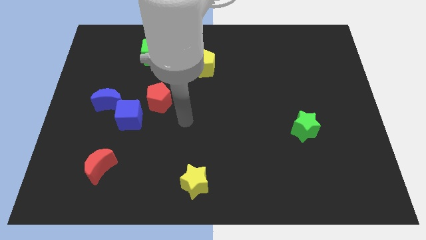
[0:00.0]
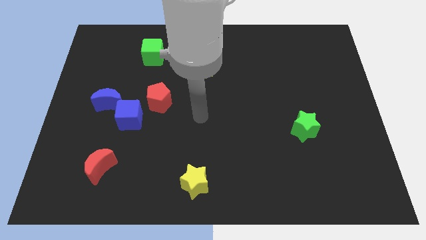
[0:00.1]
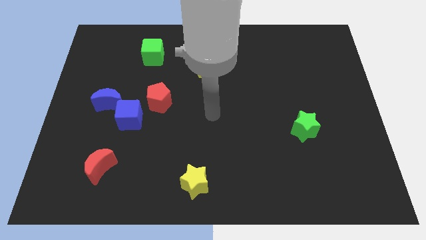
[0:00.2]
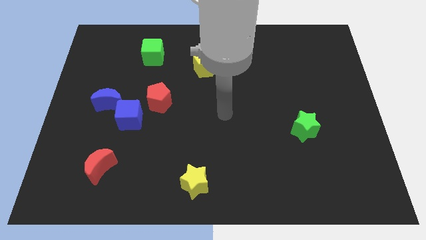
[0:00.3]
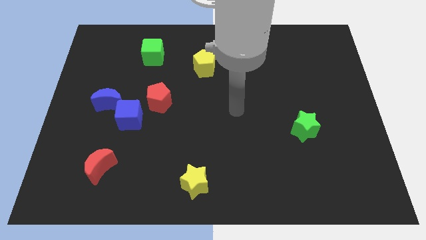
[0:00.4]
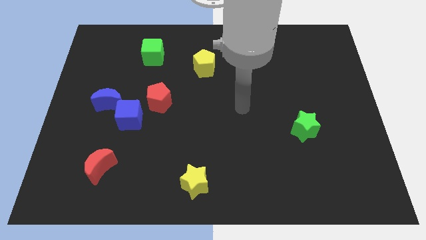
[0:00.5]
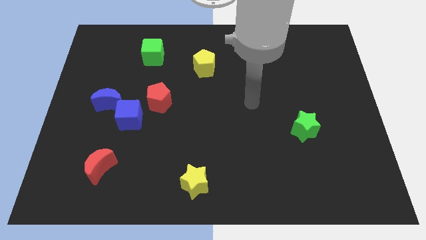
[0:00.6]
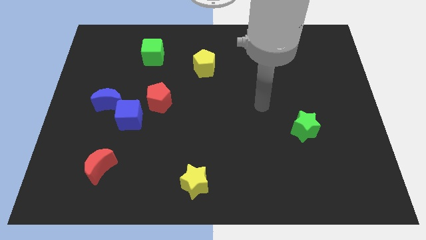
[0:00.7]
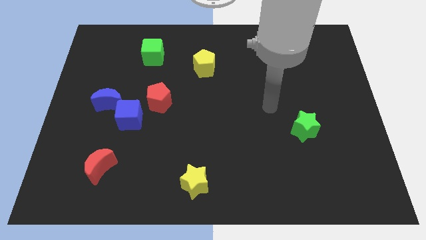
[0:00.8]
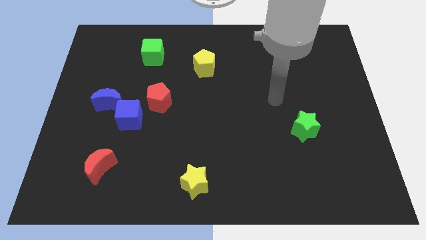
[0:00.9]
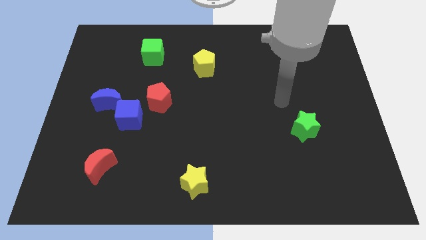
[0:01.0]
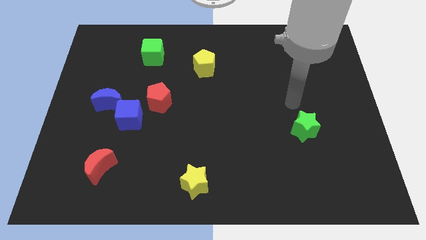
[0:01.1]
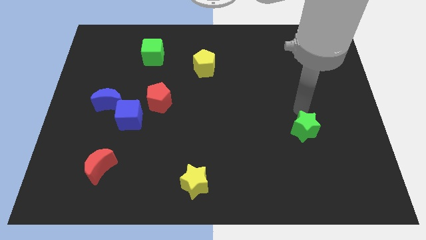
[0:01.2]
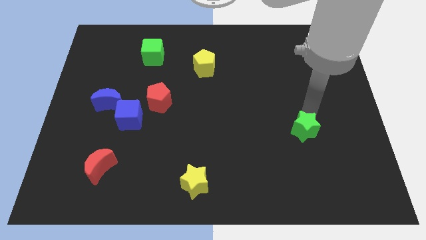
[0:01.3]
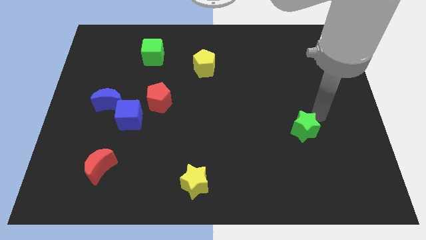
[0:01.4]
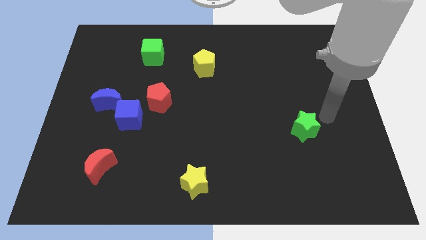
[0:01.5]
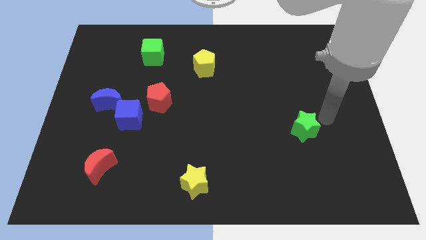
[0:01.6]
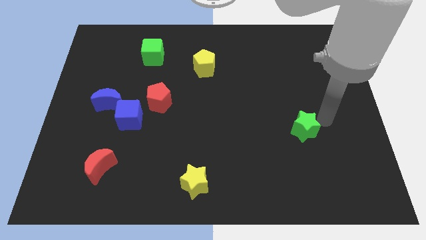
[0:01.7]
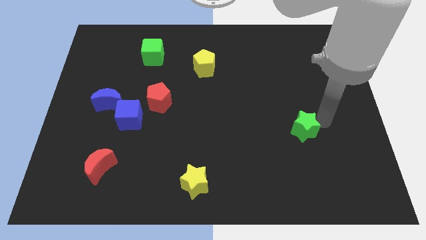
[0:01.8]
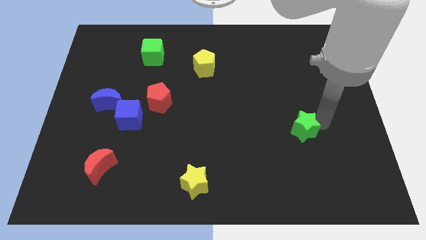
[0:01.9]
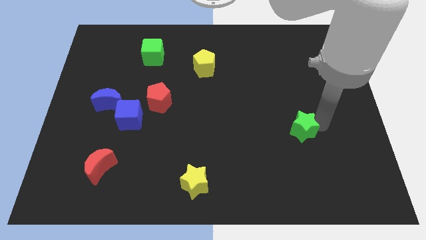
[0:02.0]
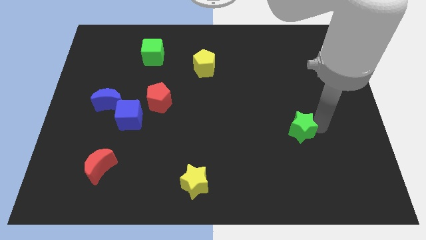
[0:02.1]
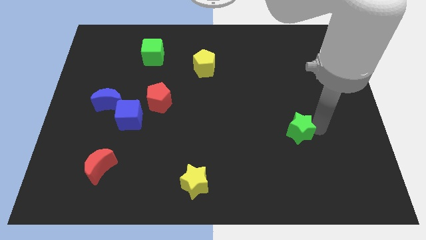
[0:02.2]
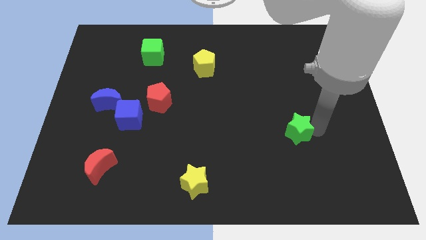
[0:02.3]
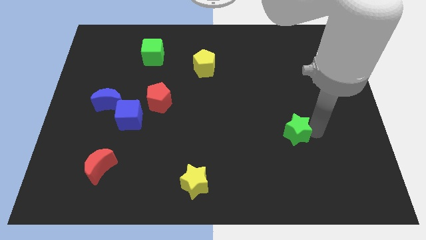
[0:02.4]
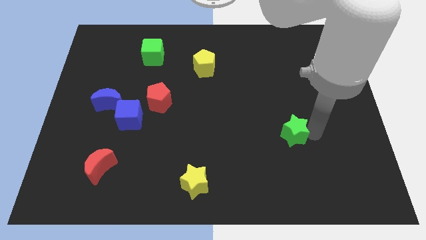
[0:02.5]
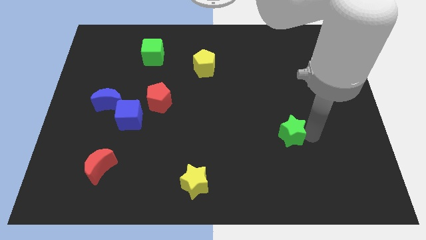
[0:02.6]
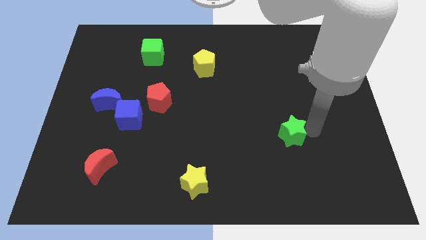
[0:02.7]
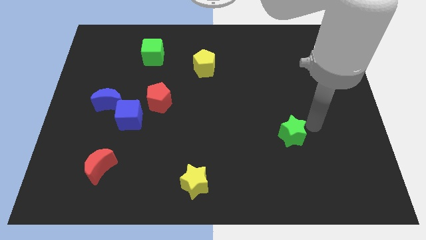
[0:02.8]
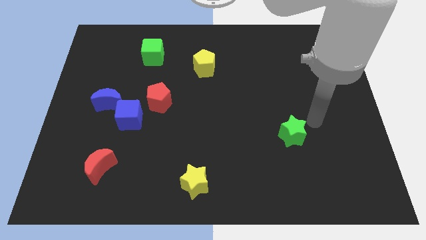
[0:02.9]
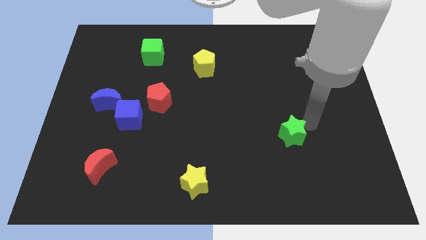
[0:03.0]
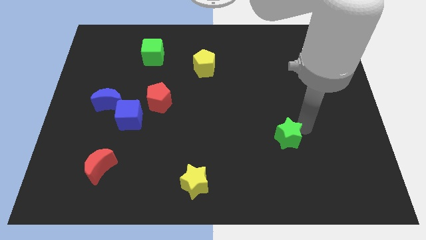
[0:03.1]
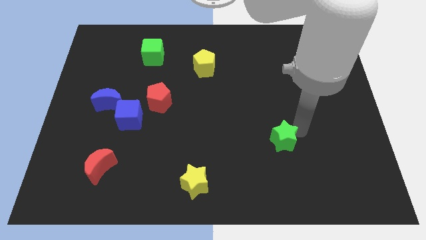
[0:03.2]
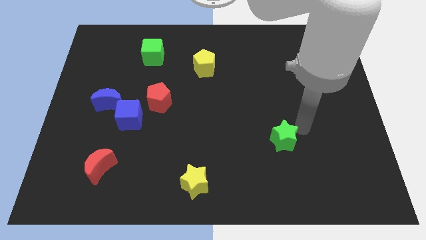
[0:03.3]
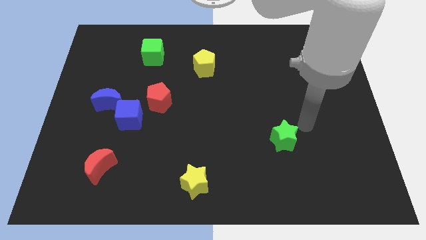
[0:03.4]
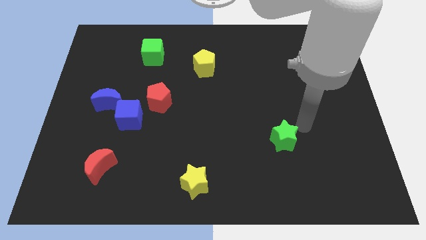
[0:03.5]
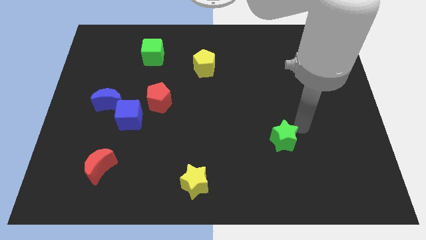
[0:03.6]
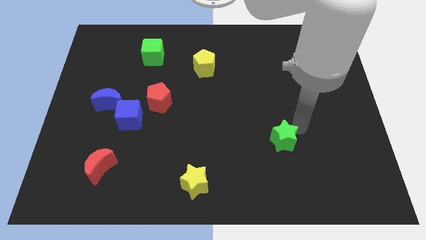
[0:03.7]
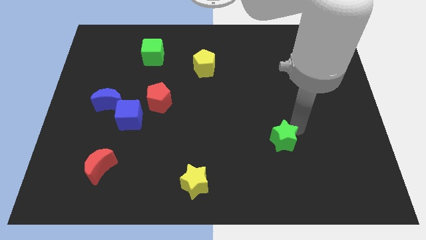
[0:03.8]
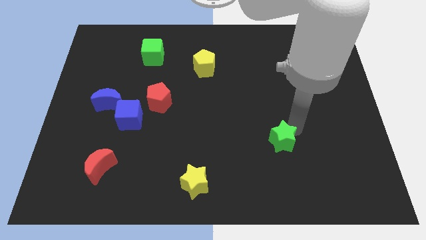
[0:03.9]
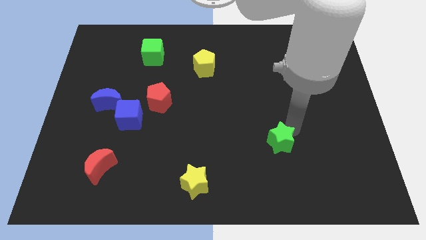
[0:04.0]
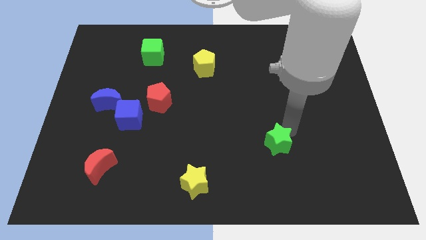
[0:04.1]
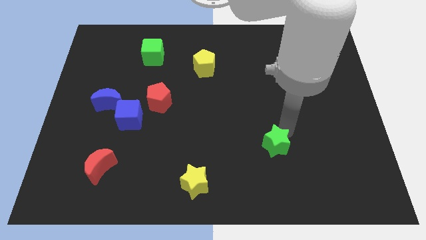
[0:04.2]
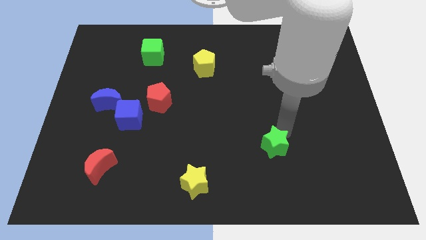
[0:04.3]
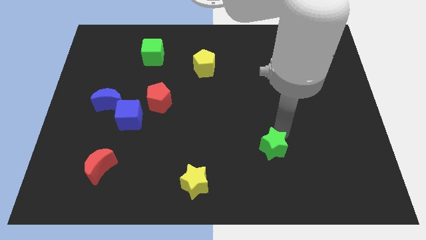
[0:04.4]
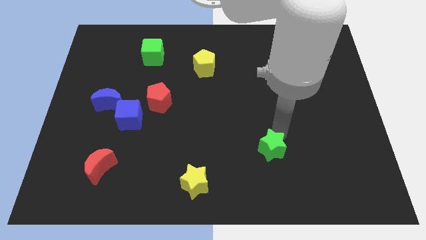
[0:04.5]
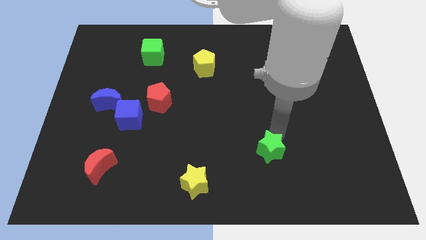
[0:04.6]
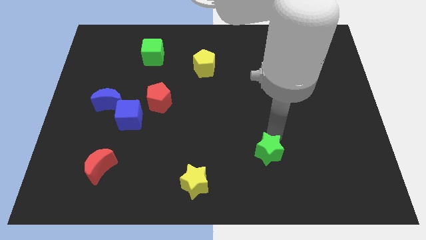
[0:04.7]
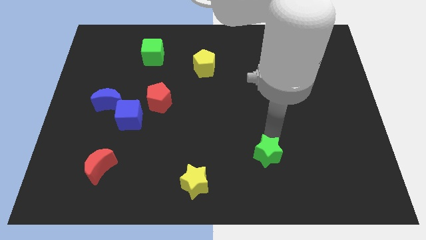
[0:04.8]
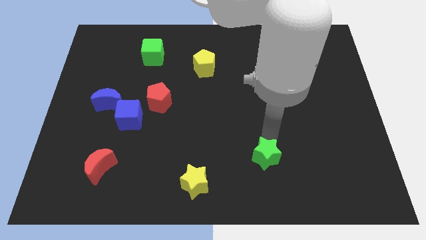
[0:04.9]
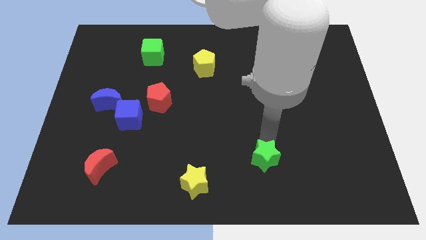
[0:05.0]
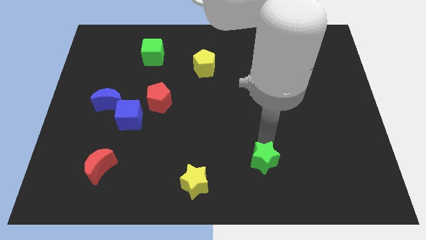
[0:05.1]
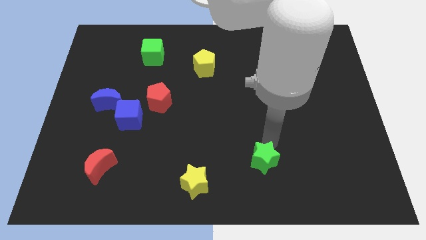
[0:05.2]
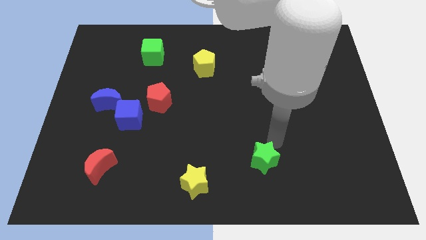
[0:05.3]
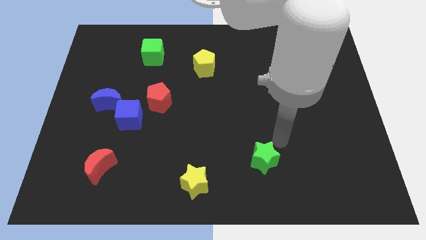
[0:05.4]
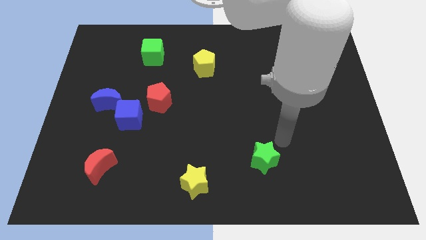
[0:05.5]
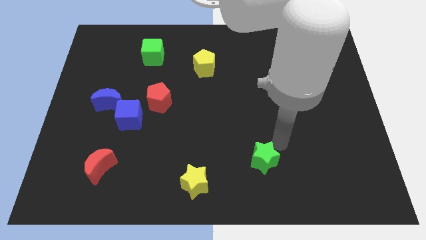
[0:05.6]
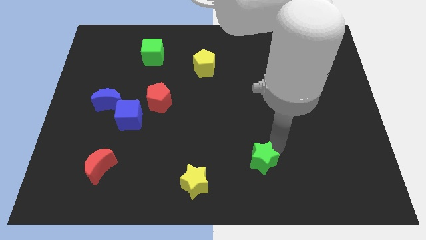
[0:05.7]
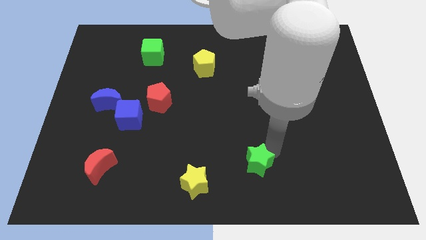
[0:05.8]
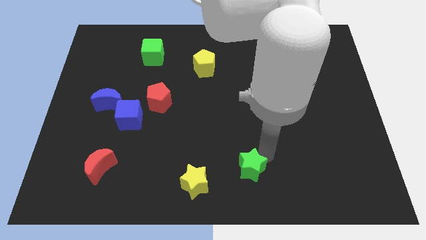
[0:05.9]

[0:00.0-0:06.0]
push the green star to the bottom
